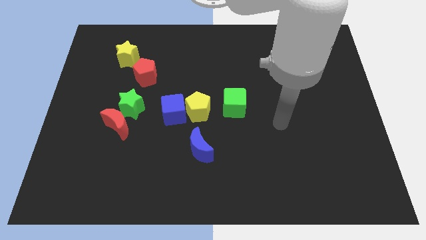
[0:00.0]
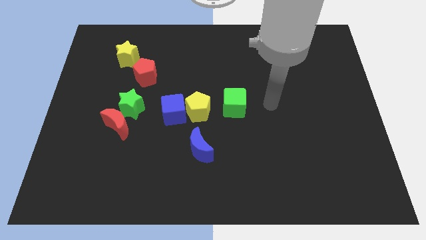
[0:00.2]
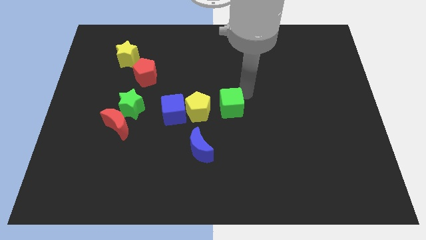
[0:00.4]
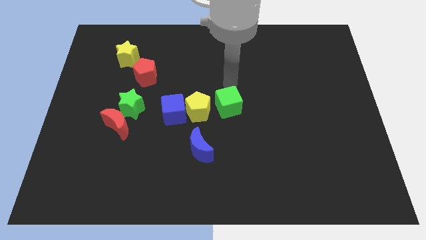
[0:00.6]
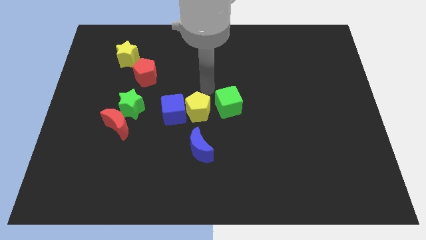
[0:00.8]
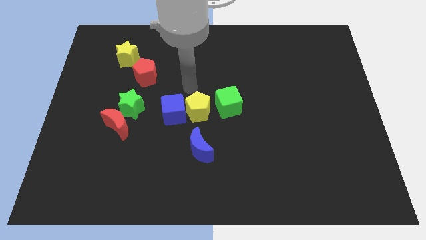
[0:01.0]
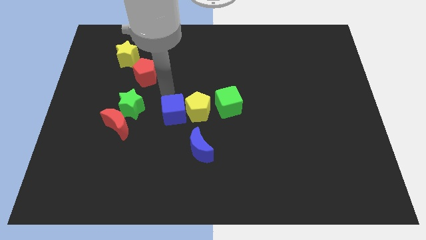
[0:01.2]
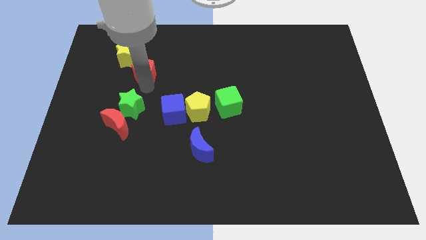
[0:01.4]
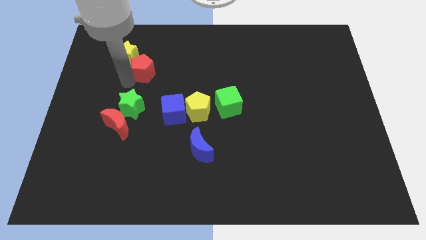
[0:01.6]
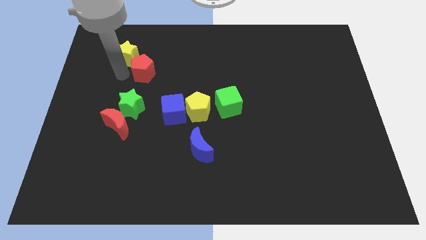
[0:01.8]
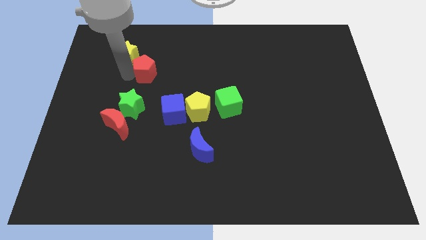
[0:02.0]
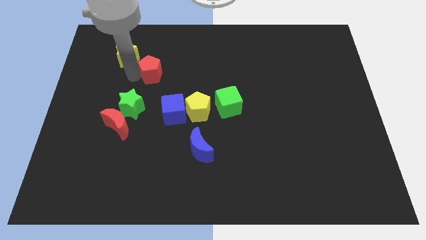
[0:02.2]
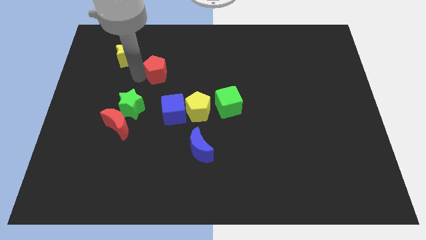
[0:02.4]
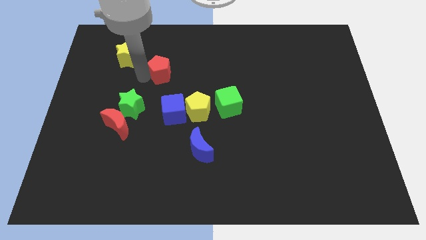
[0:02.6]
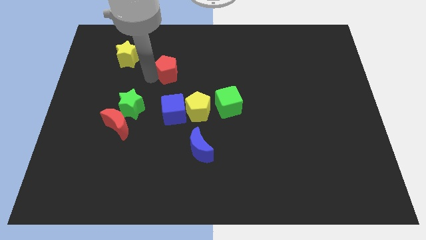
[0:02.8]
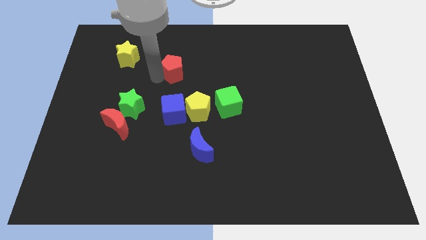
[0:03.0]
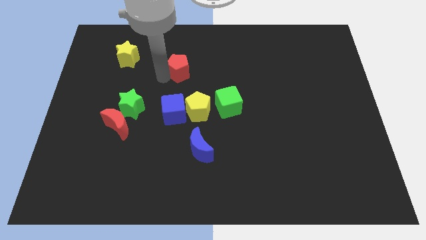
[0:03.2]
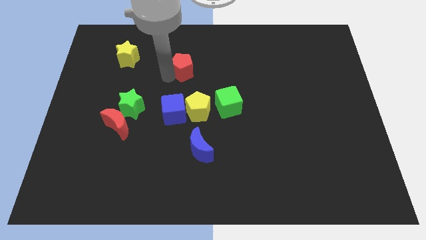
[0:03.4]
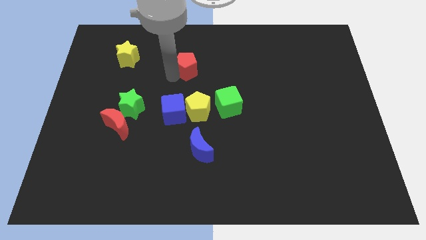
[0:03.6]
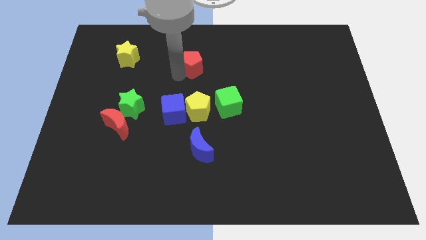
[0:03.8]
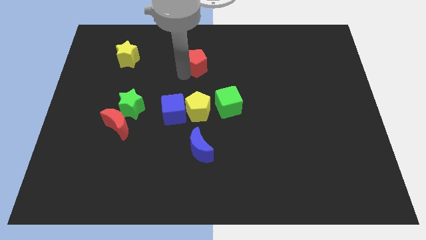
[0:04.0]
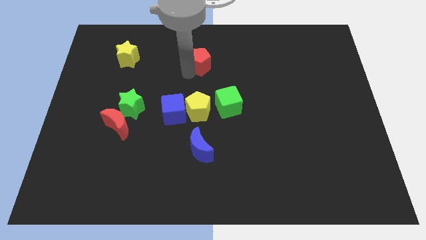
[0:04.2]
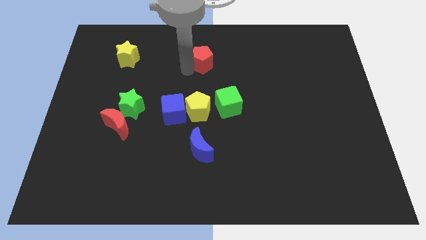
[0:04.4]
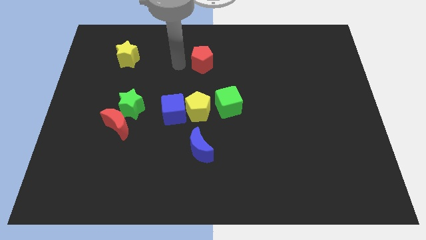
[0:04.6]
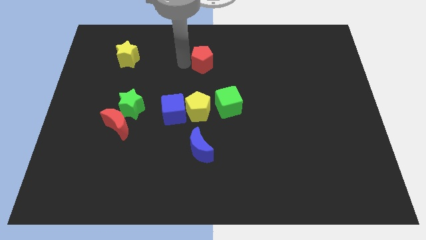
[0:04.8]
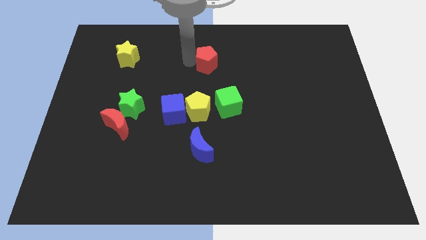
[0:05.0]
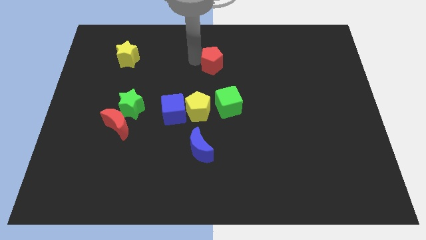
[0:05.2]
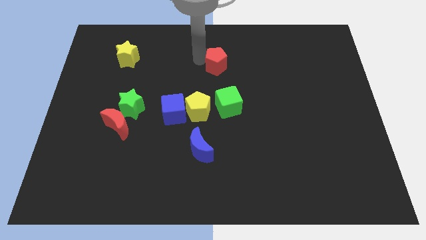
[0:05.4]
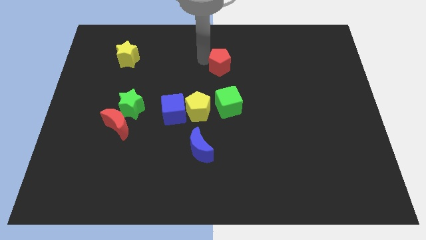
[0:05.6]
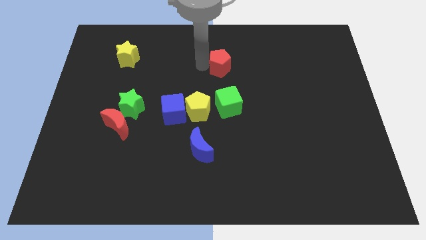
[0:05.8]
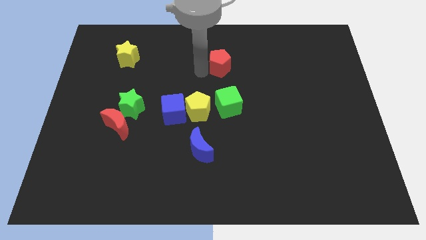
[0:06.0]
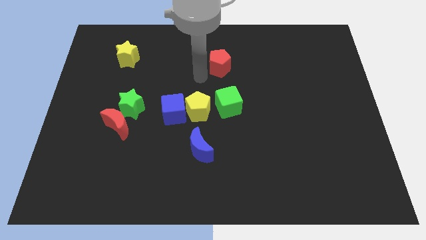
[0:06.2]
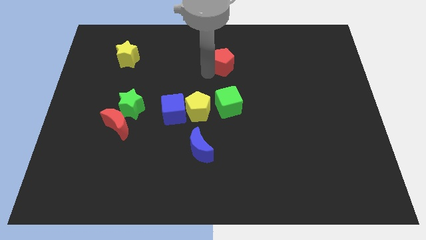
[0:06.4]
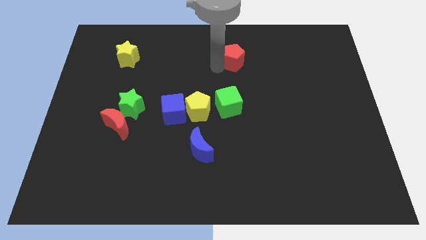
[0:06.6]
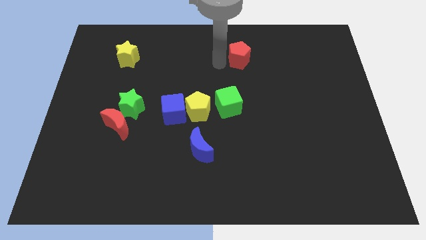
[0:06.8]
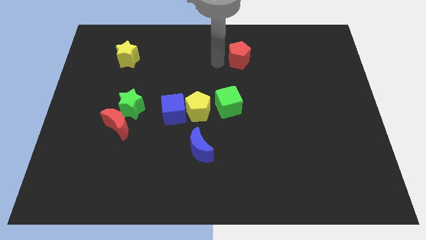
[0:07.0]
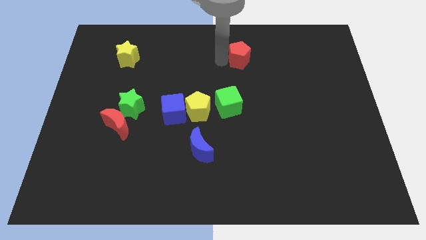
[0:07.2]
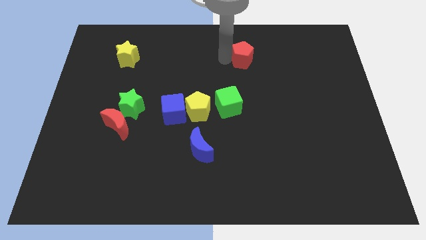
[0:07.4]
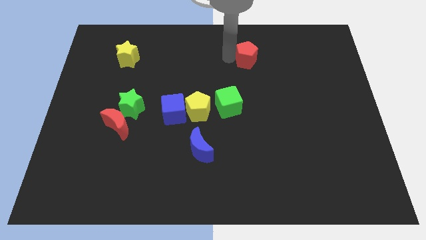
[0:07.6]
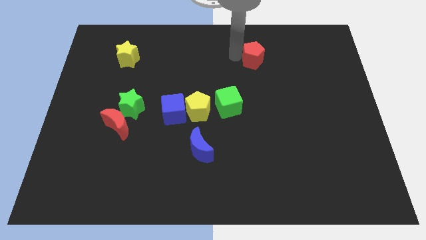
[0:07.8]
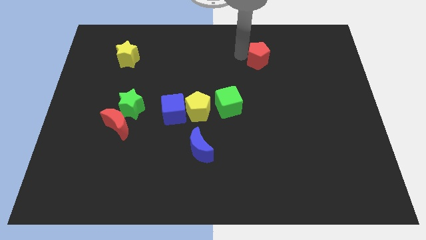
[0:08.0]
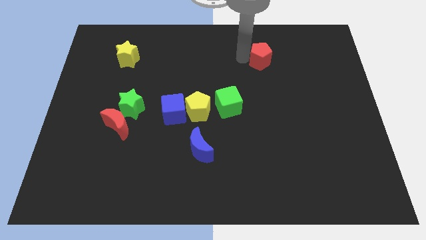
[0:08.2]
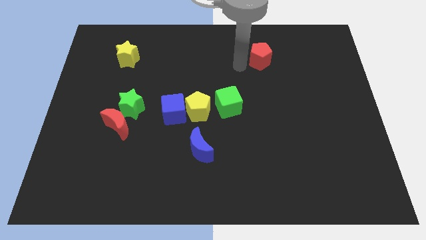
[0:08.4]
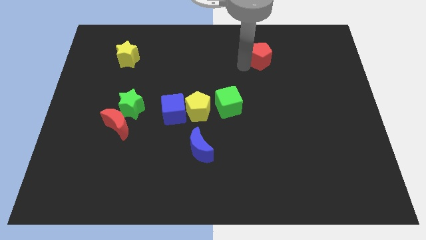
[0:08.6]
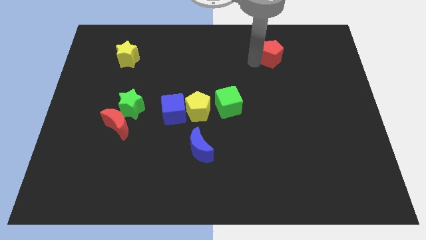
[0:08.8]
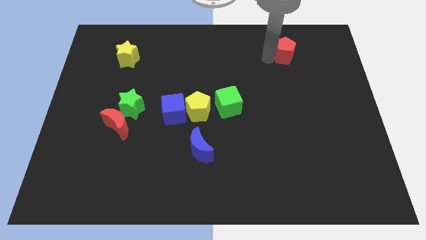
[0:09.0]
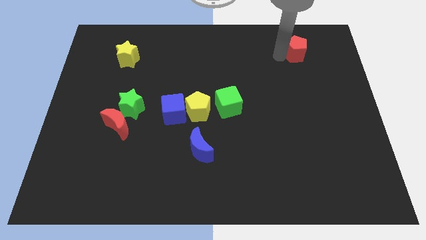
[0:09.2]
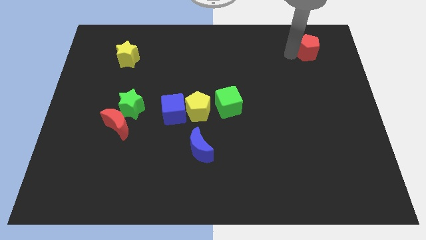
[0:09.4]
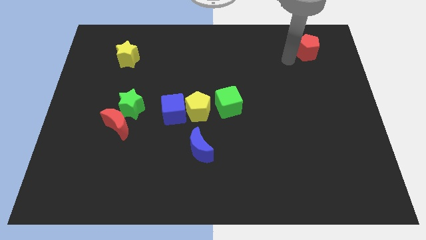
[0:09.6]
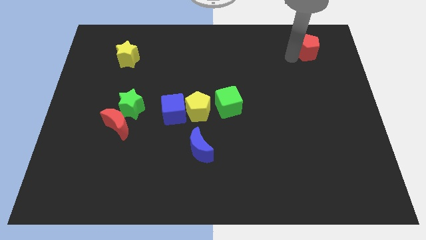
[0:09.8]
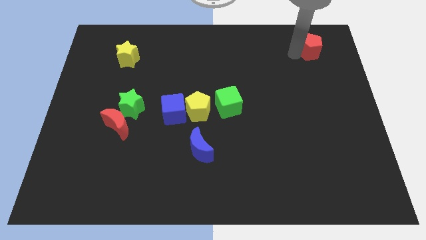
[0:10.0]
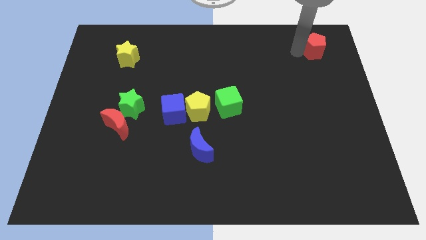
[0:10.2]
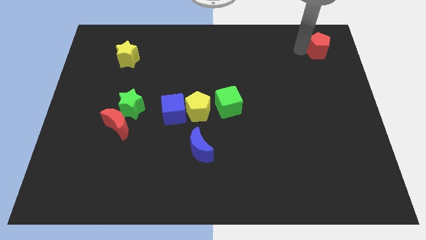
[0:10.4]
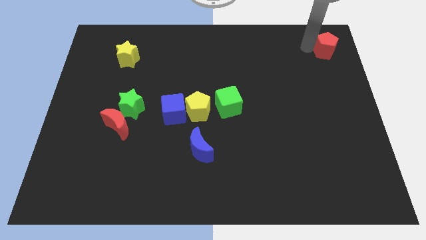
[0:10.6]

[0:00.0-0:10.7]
slide the red pentagon to the upper right corner
